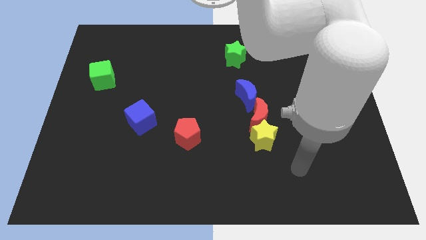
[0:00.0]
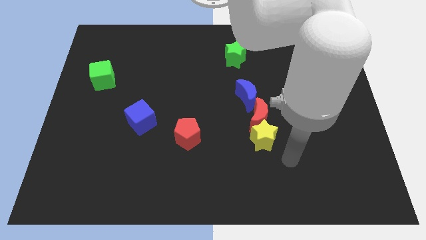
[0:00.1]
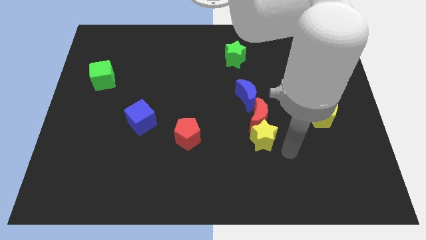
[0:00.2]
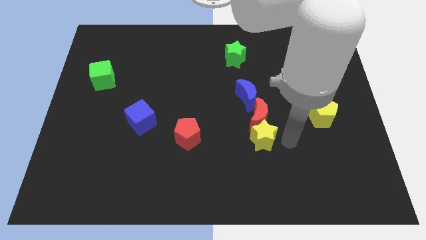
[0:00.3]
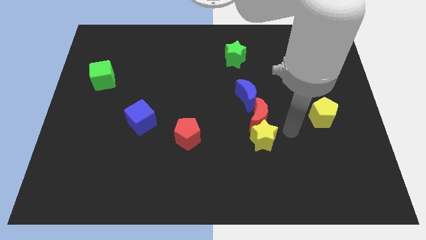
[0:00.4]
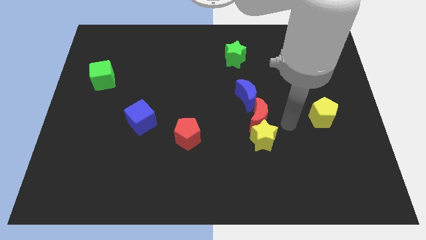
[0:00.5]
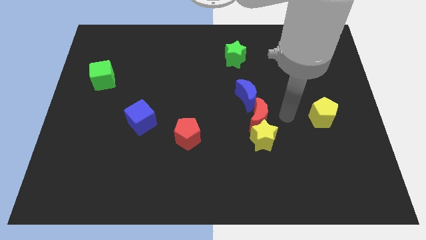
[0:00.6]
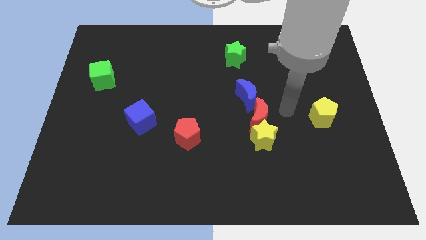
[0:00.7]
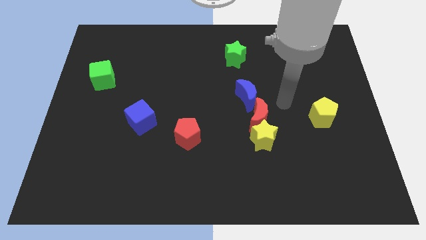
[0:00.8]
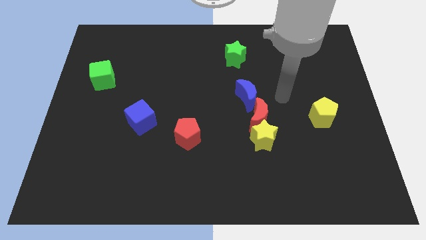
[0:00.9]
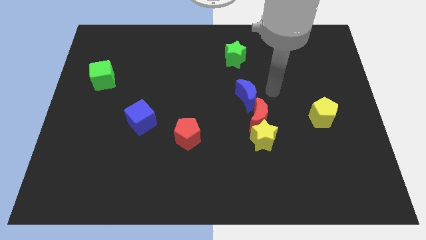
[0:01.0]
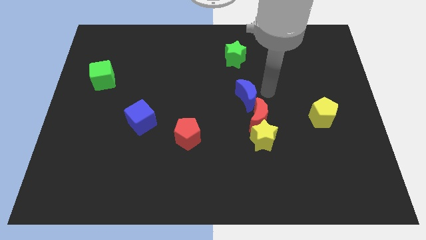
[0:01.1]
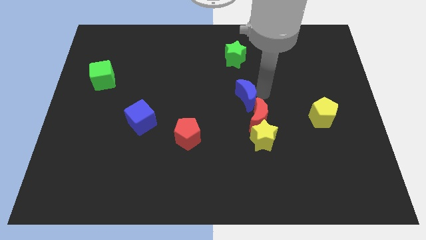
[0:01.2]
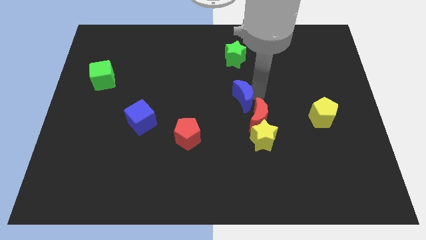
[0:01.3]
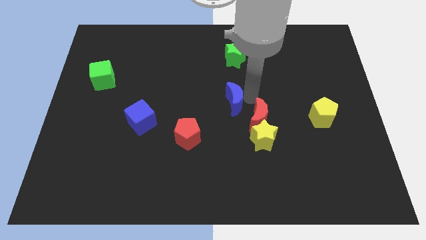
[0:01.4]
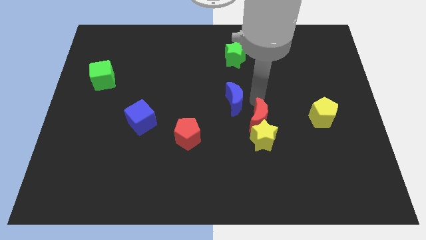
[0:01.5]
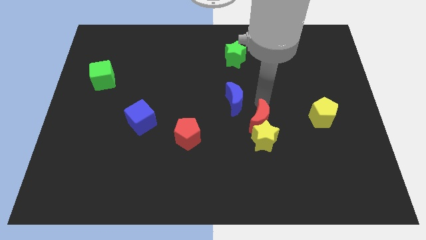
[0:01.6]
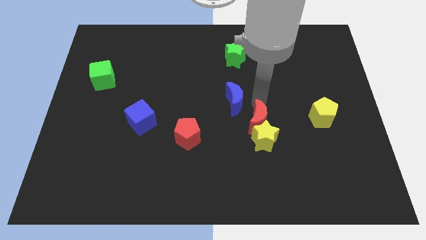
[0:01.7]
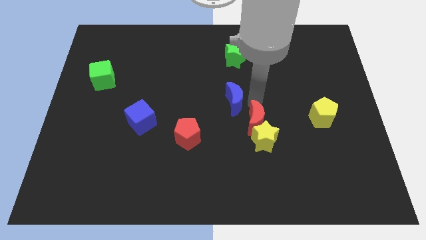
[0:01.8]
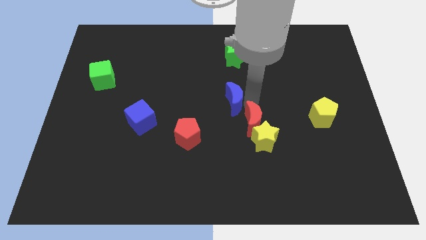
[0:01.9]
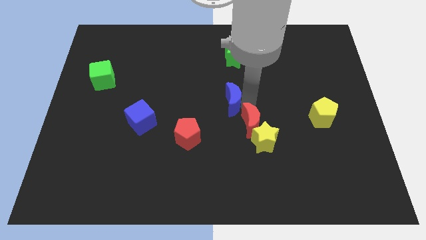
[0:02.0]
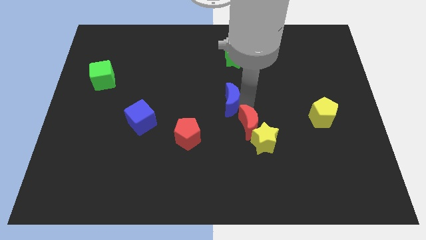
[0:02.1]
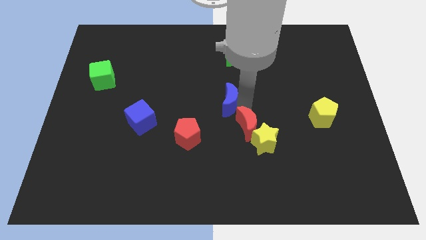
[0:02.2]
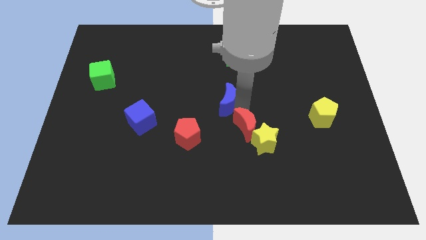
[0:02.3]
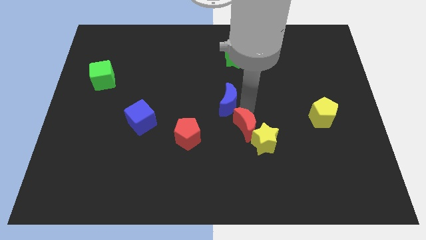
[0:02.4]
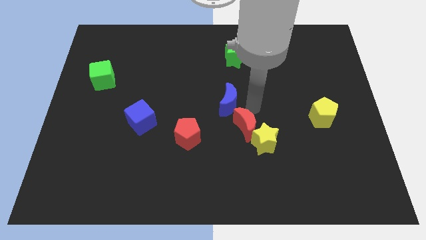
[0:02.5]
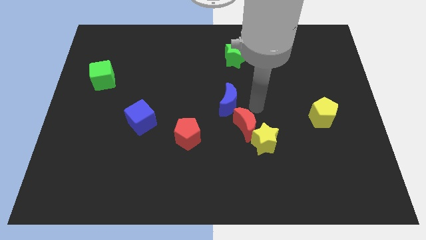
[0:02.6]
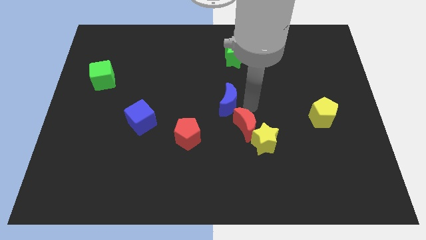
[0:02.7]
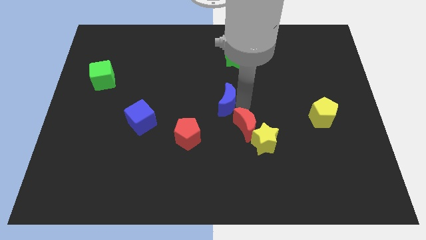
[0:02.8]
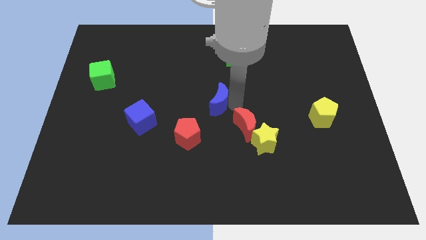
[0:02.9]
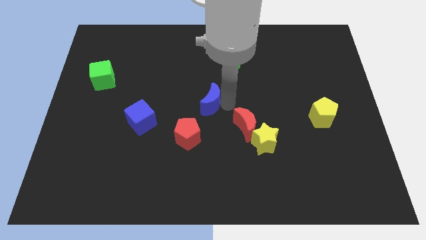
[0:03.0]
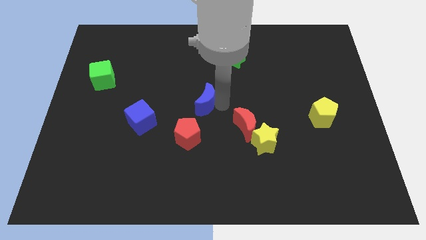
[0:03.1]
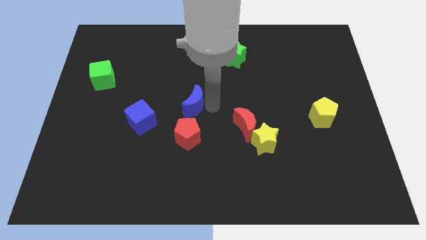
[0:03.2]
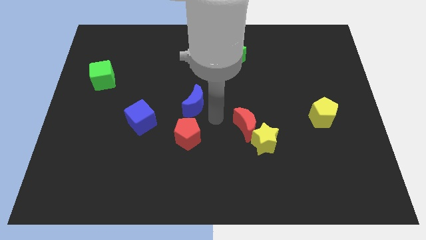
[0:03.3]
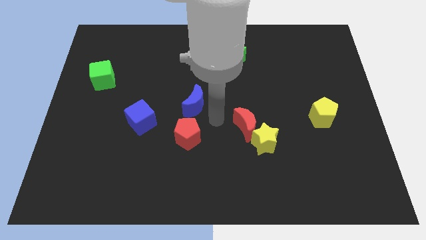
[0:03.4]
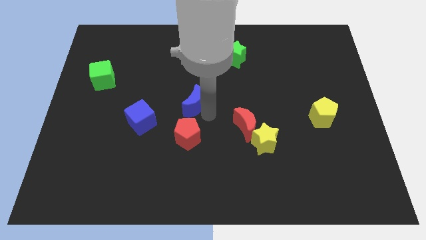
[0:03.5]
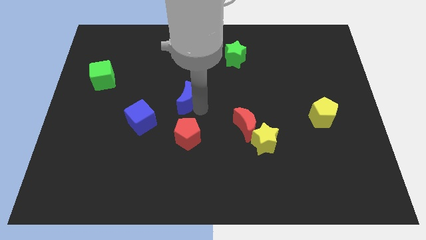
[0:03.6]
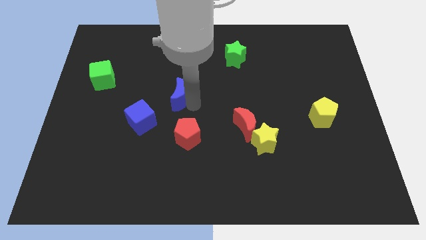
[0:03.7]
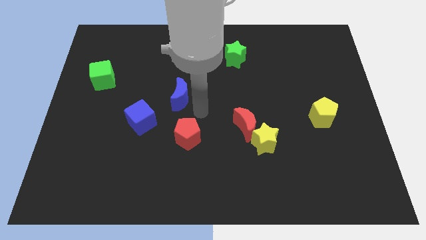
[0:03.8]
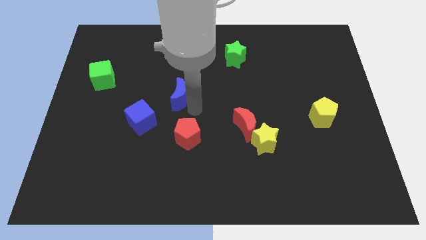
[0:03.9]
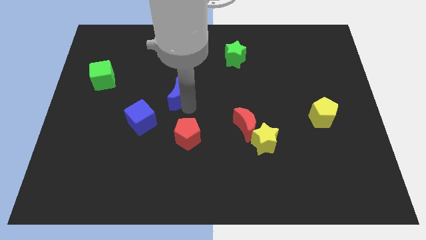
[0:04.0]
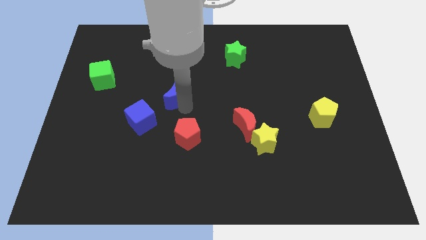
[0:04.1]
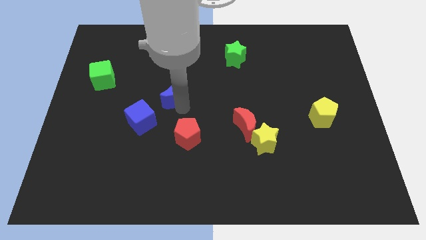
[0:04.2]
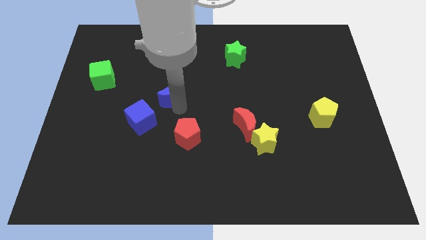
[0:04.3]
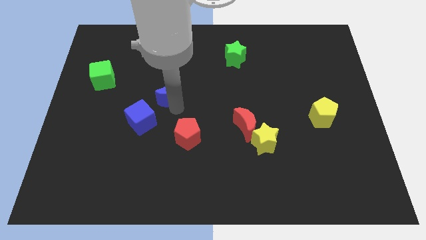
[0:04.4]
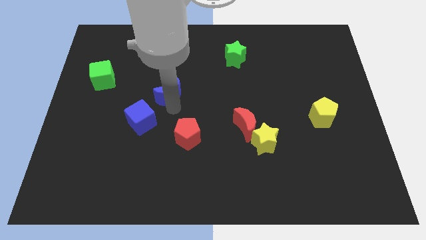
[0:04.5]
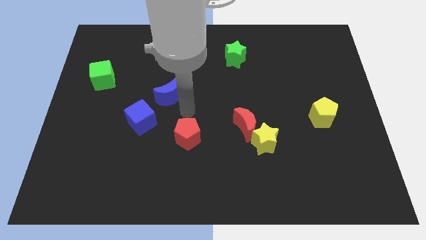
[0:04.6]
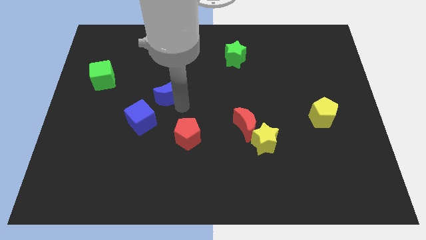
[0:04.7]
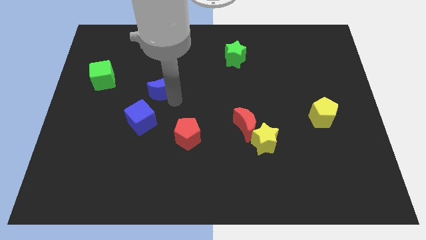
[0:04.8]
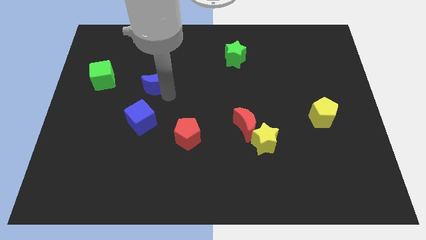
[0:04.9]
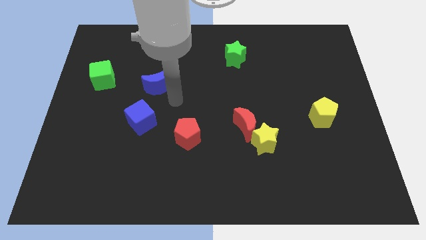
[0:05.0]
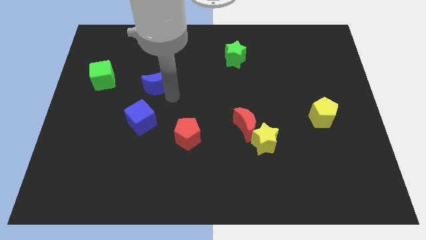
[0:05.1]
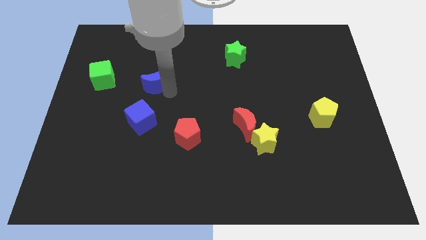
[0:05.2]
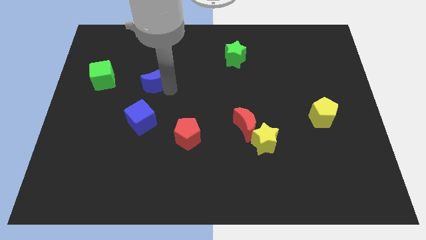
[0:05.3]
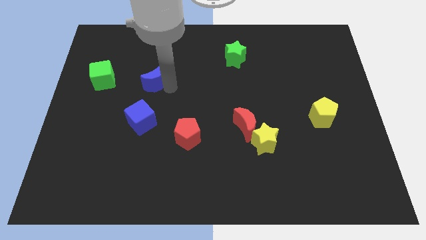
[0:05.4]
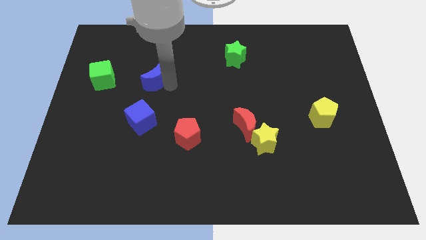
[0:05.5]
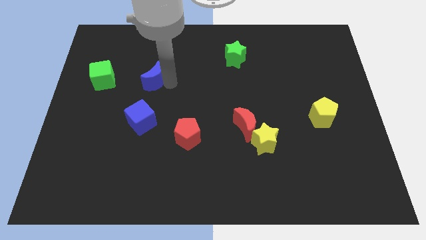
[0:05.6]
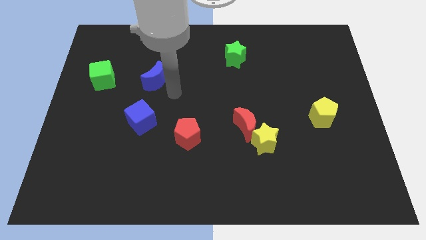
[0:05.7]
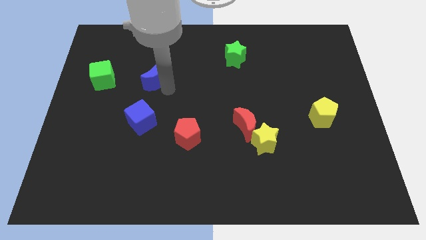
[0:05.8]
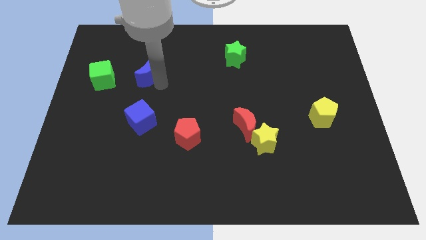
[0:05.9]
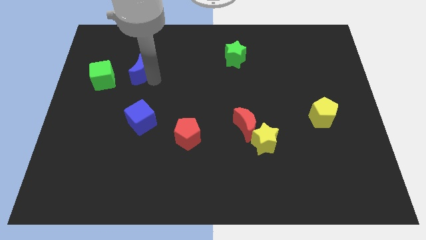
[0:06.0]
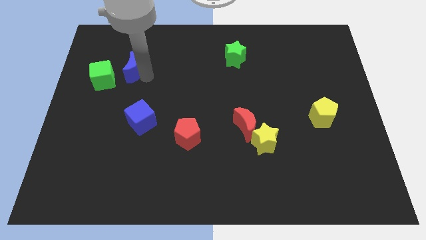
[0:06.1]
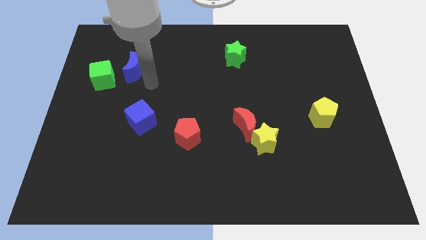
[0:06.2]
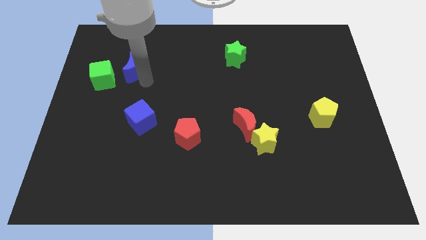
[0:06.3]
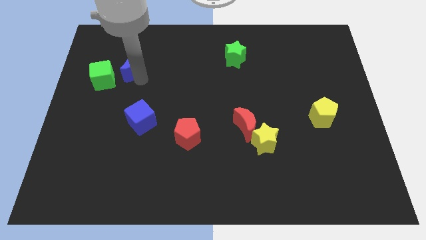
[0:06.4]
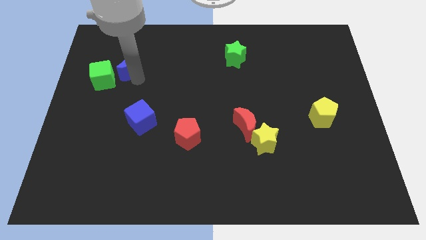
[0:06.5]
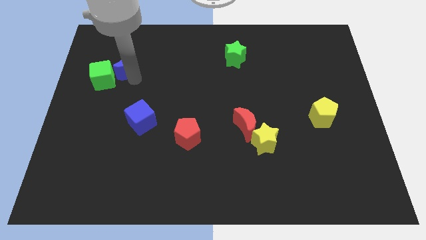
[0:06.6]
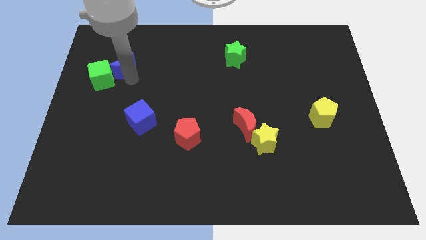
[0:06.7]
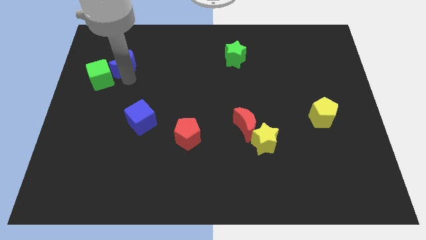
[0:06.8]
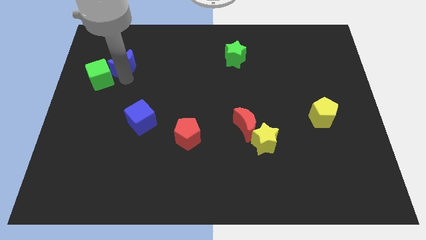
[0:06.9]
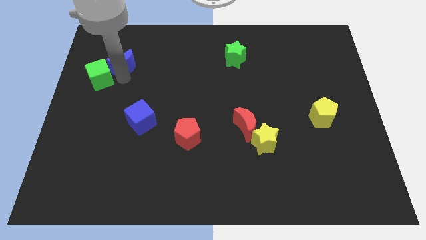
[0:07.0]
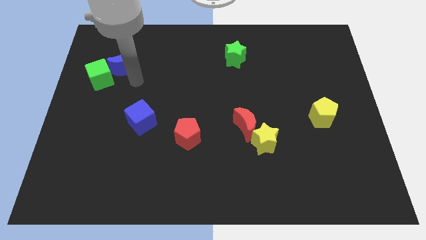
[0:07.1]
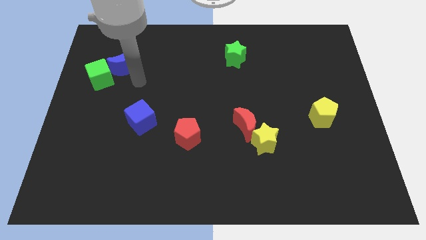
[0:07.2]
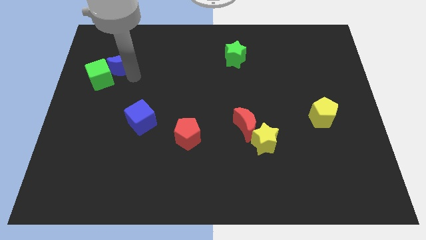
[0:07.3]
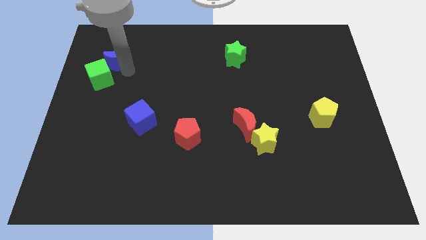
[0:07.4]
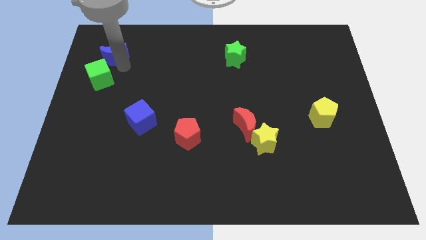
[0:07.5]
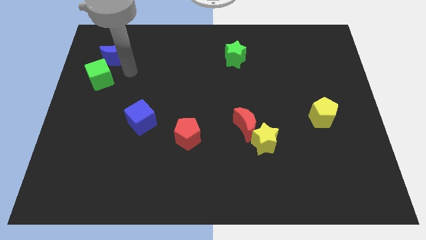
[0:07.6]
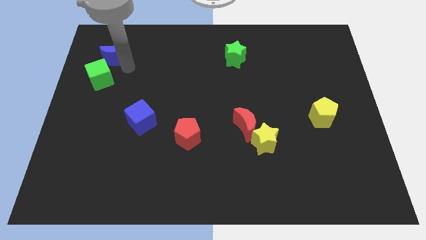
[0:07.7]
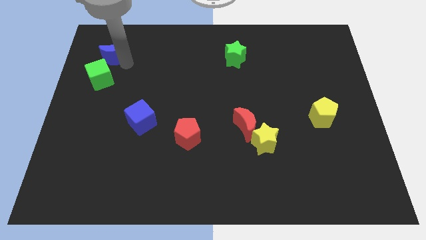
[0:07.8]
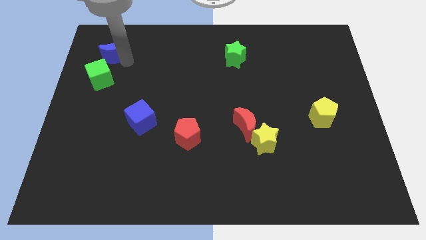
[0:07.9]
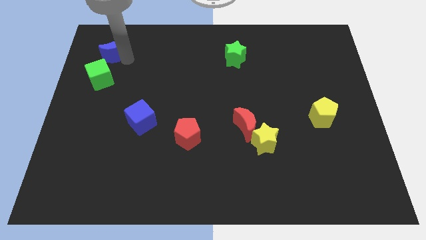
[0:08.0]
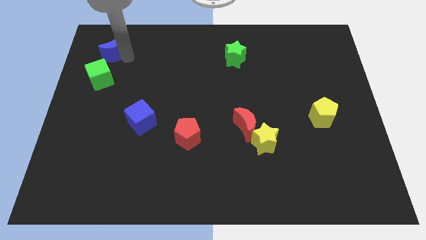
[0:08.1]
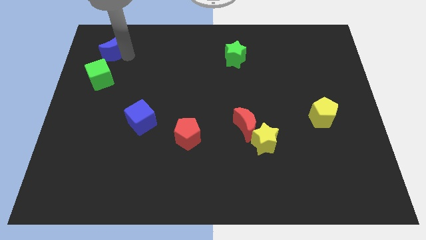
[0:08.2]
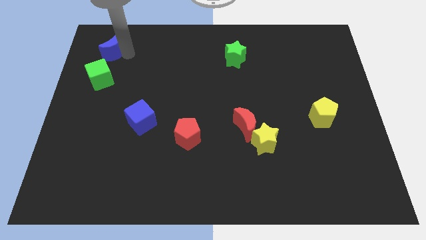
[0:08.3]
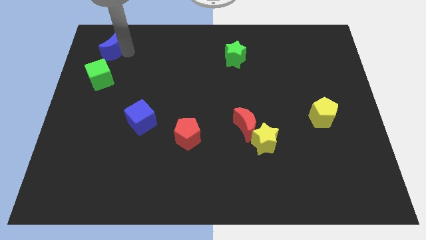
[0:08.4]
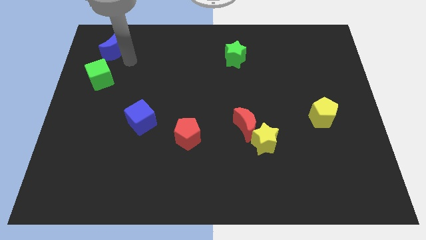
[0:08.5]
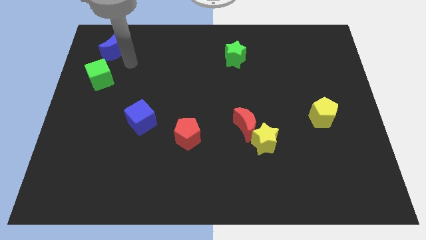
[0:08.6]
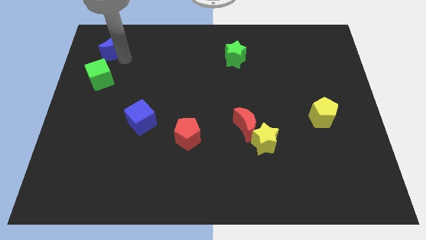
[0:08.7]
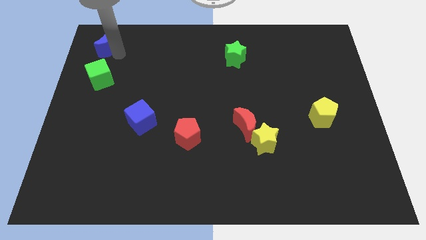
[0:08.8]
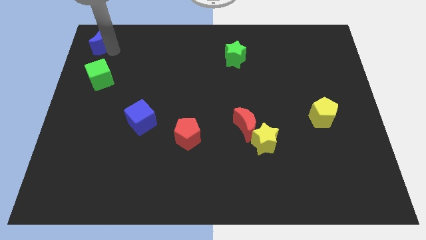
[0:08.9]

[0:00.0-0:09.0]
put the blue moon to the top left corner
